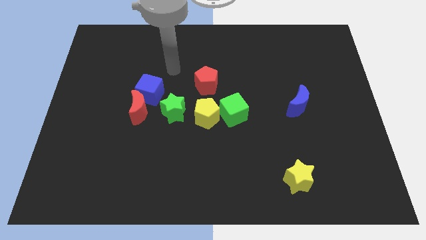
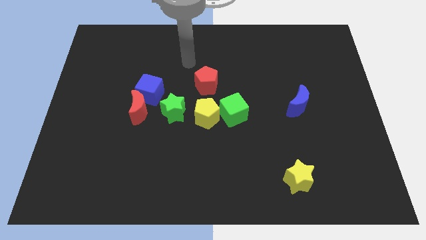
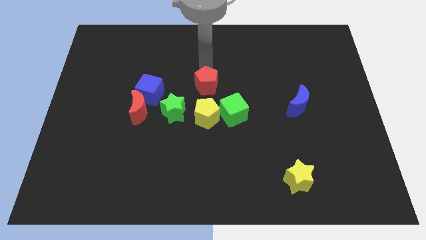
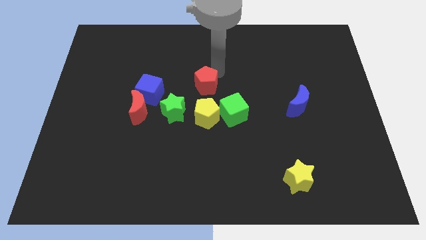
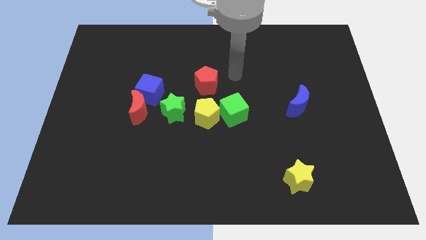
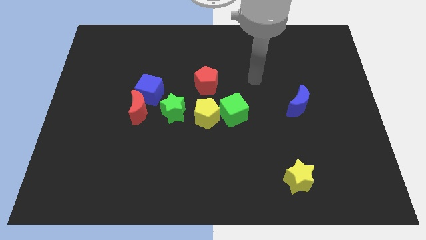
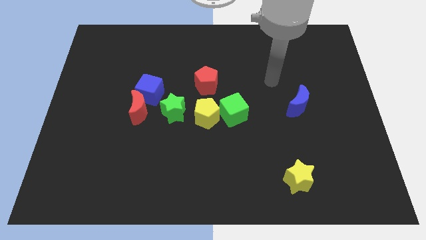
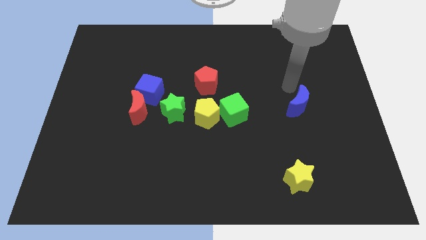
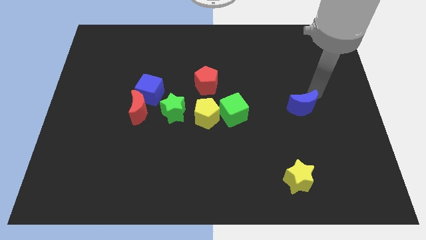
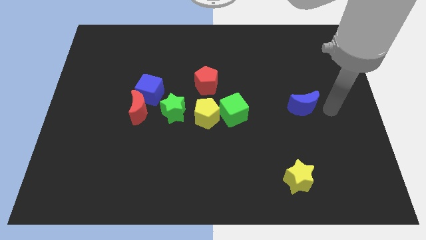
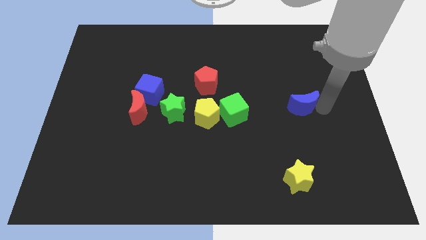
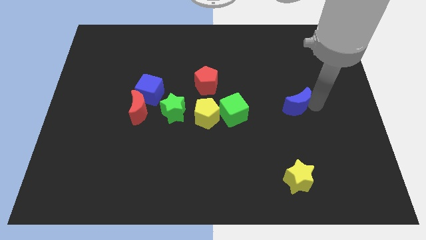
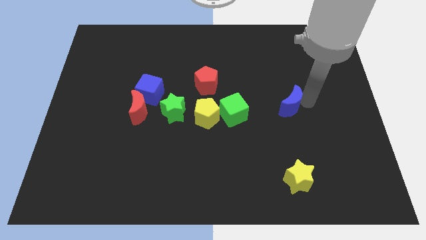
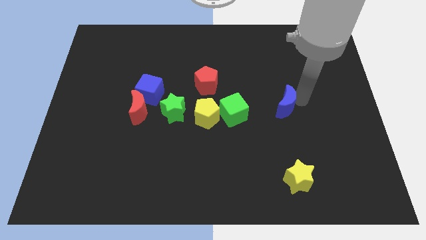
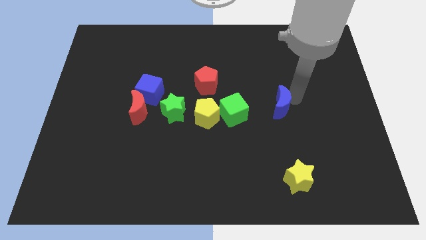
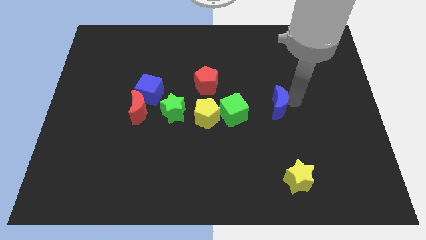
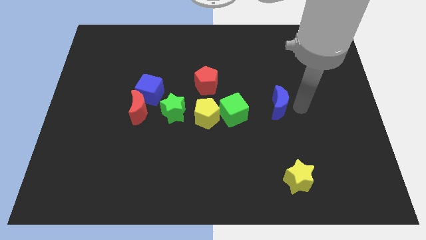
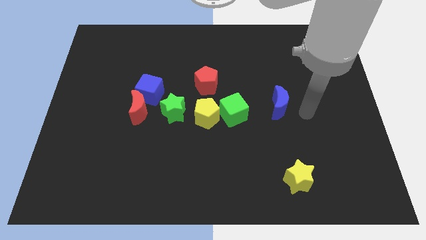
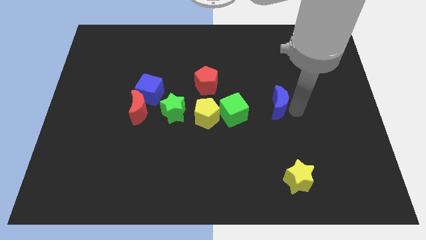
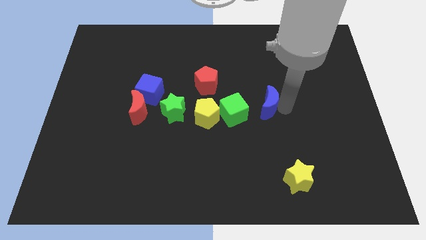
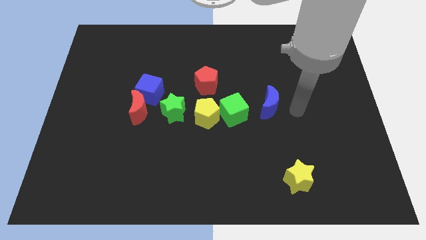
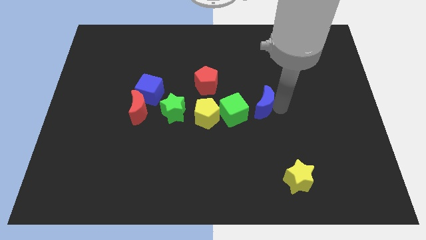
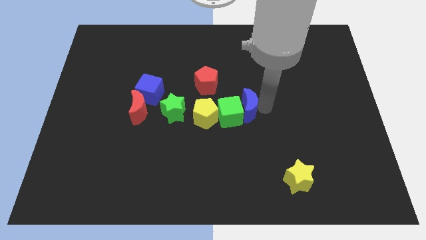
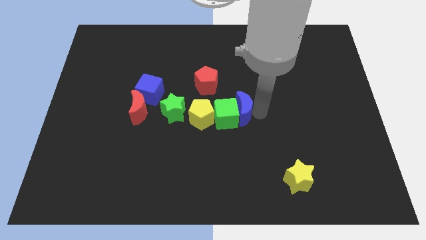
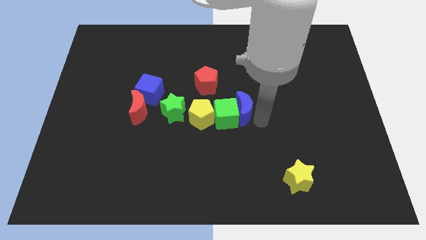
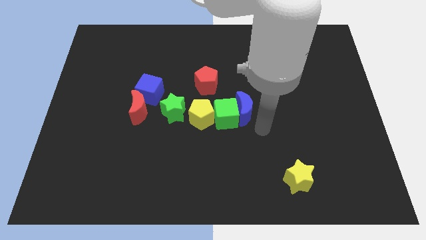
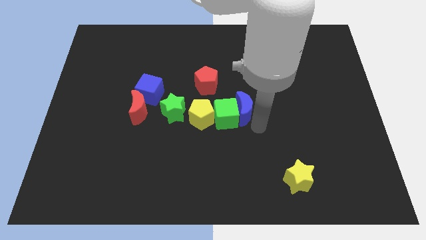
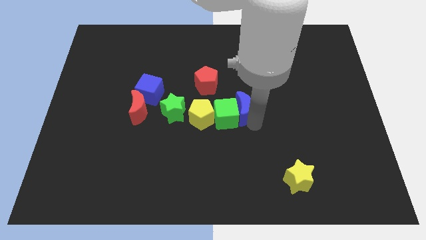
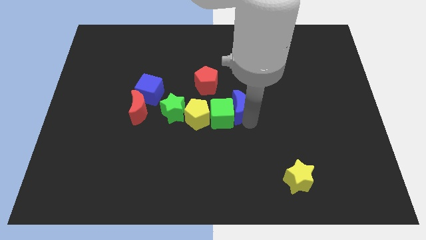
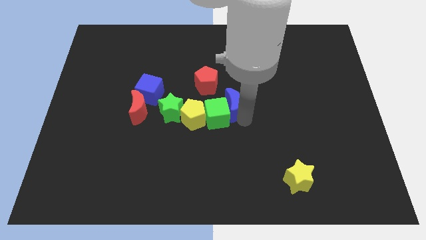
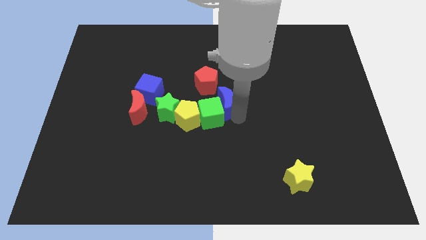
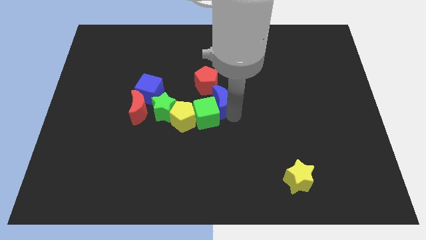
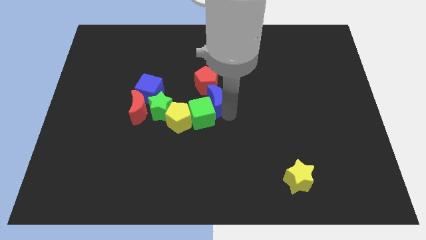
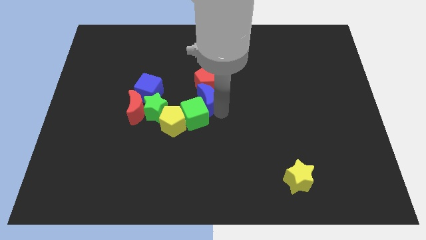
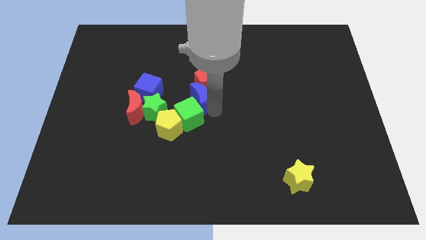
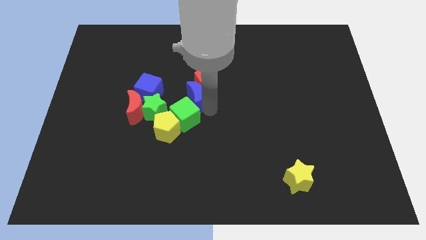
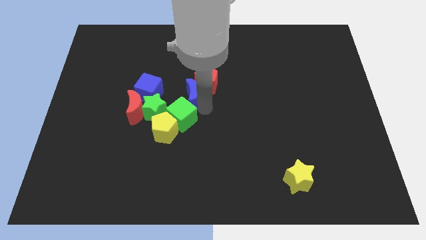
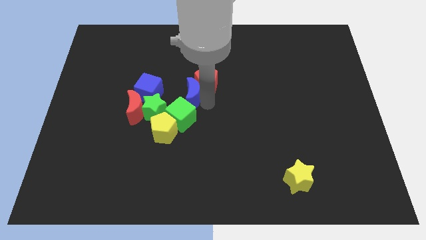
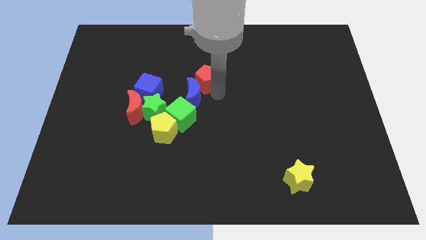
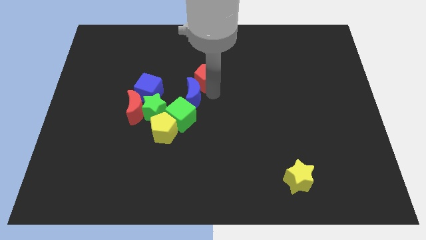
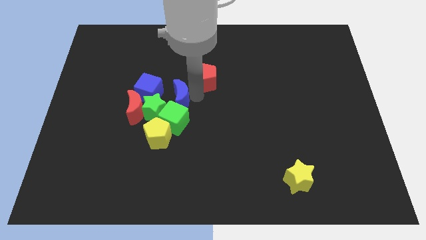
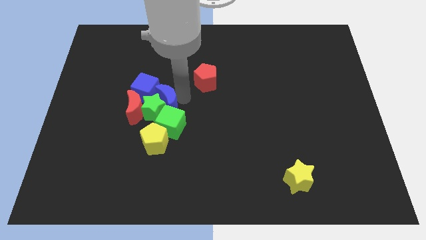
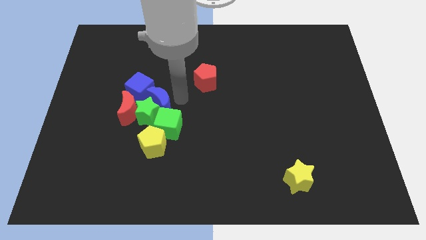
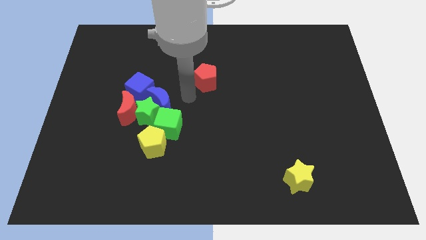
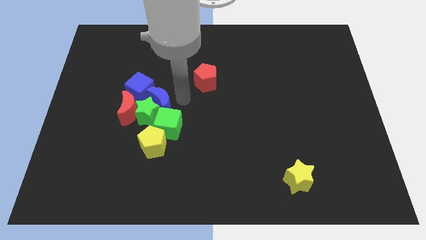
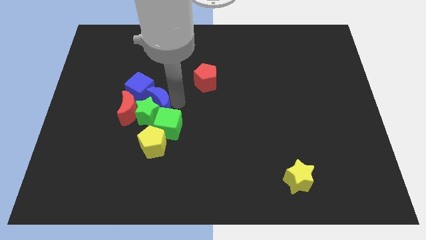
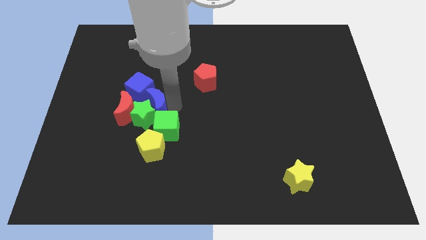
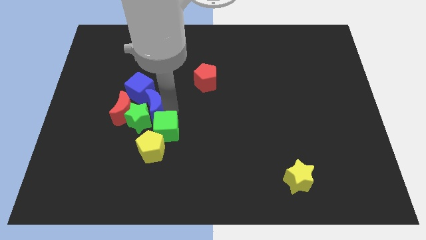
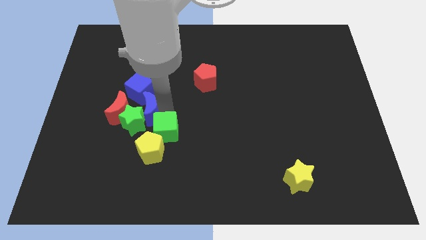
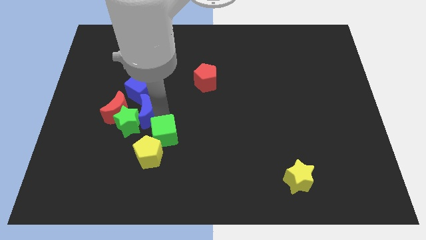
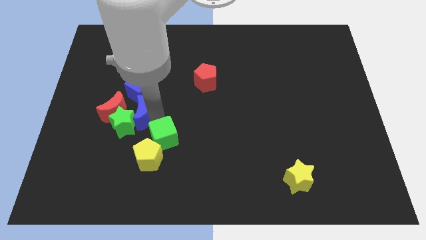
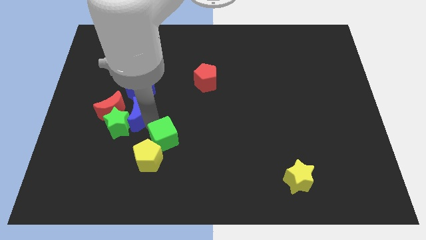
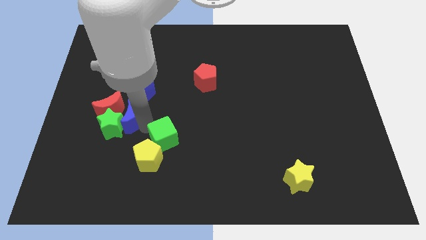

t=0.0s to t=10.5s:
slide the blue moon next to the red moon

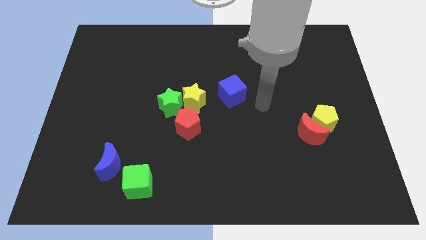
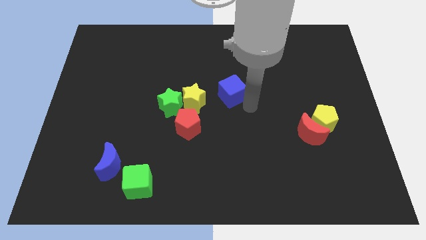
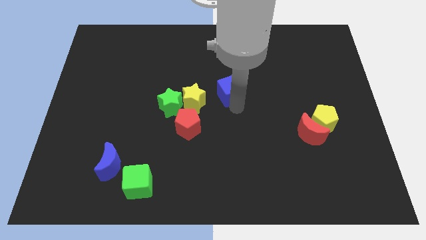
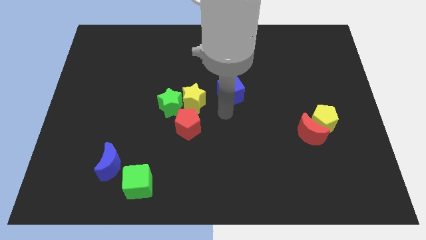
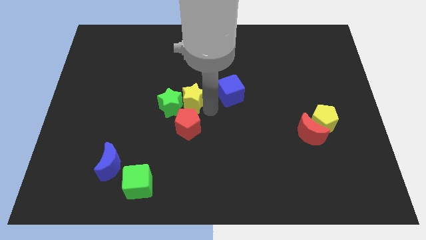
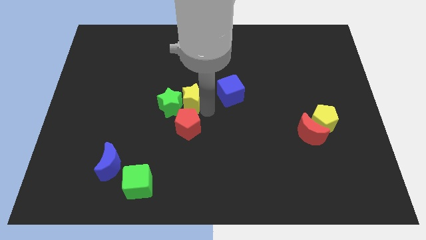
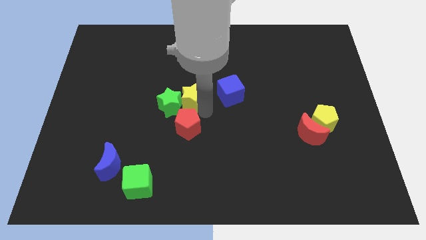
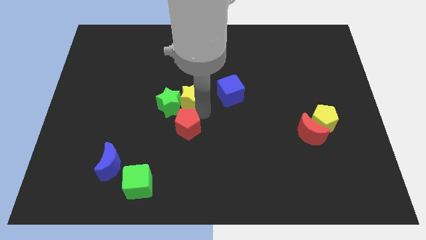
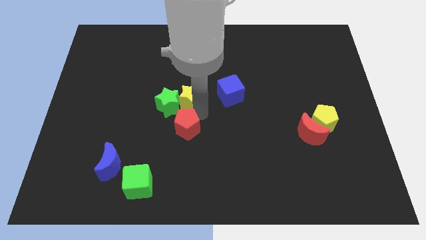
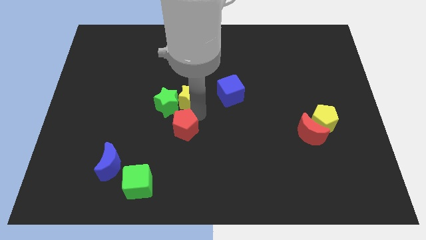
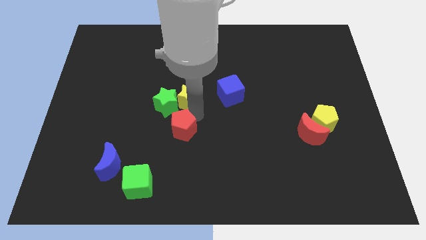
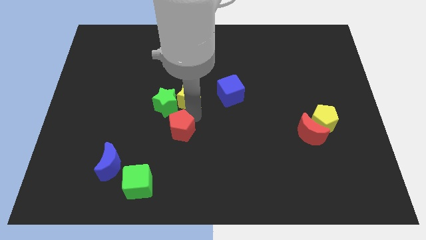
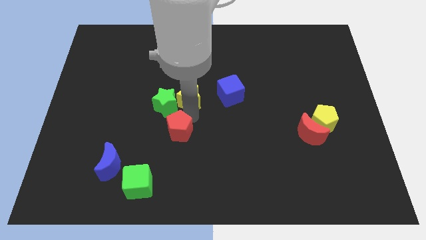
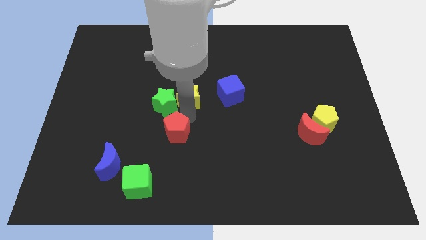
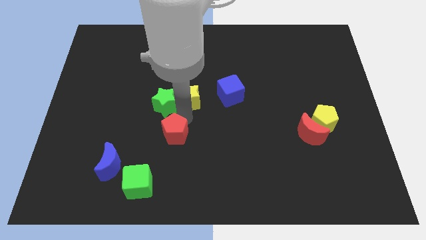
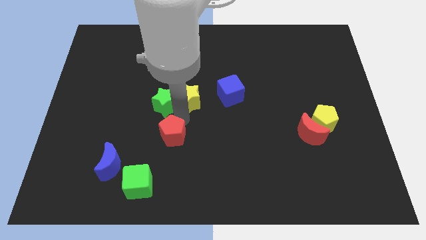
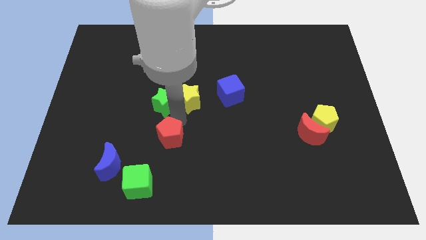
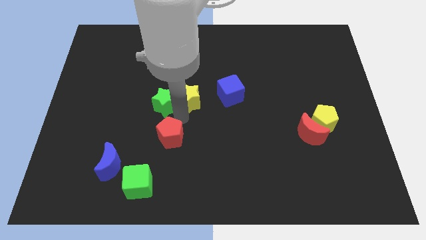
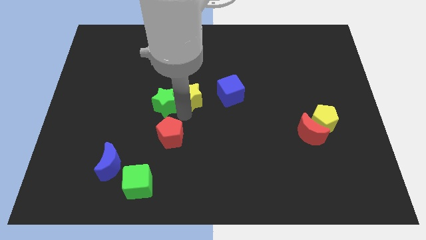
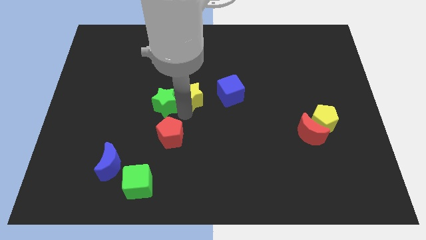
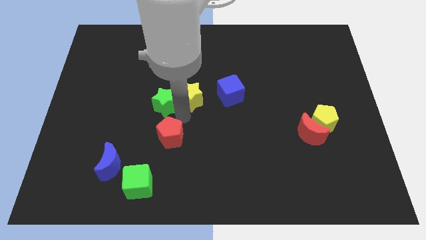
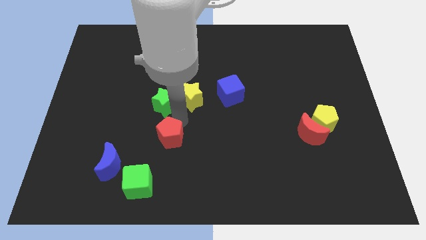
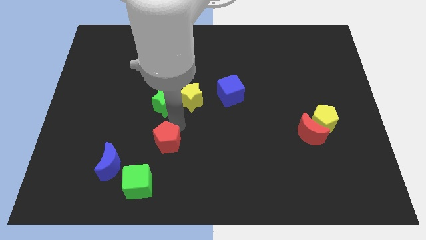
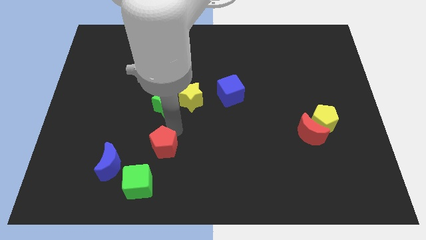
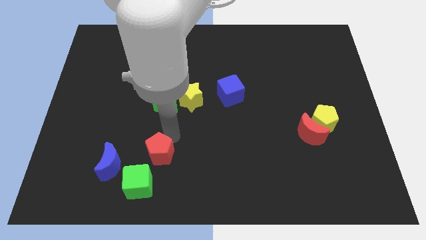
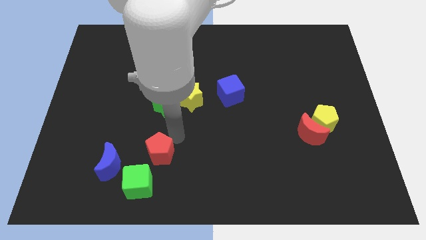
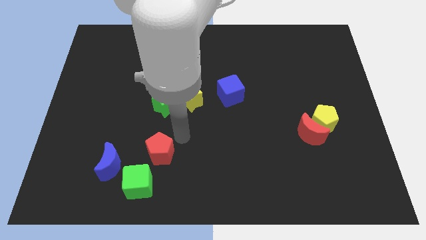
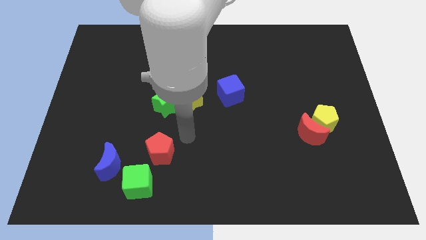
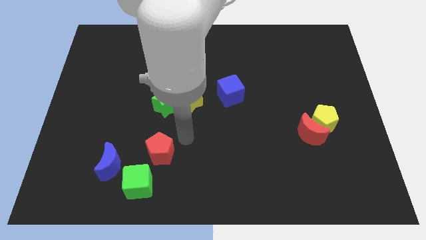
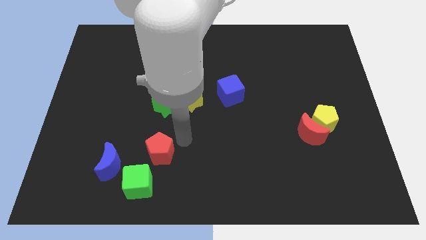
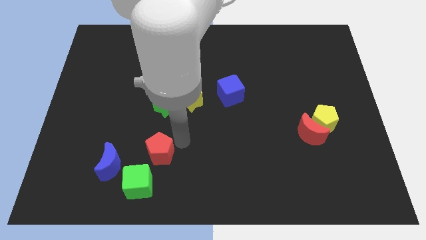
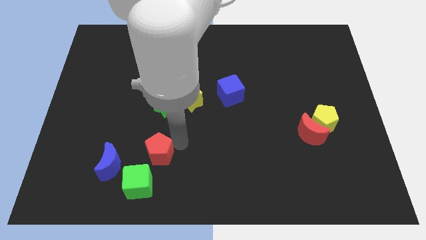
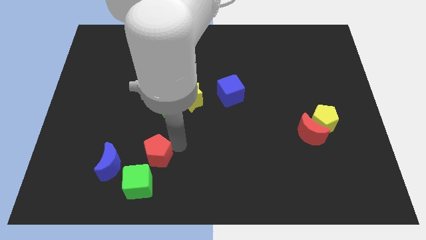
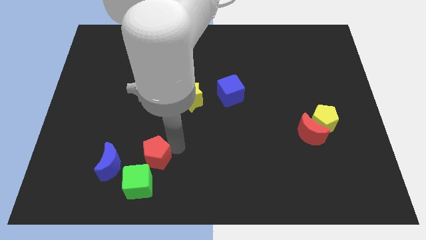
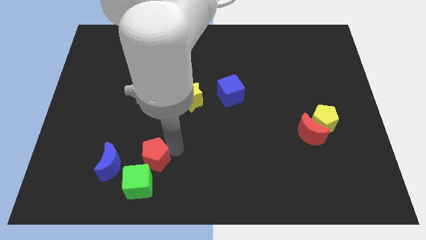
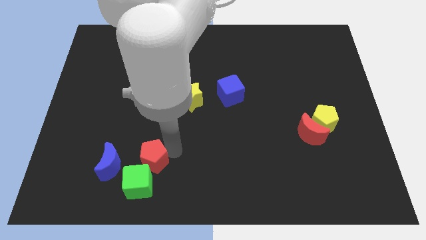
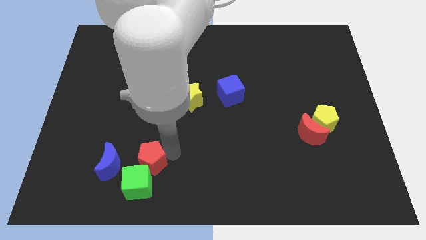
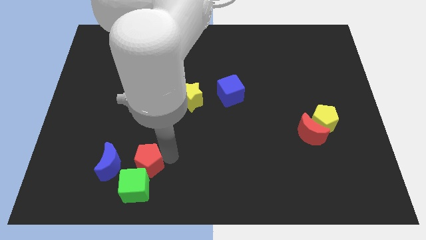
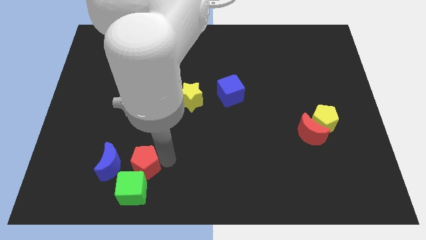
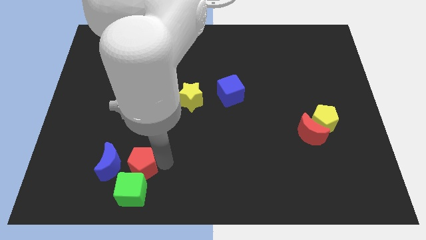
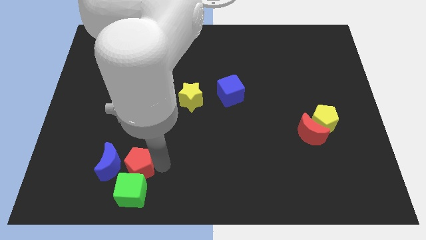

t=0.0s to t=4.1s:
slide the red pentagon next to the blue moon
